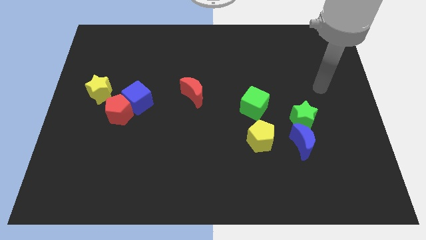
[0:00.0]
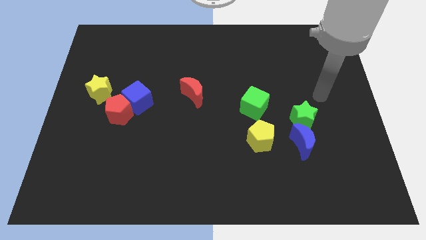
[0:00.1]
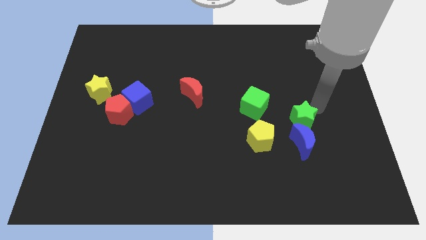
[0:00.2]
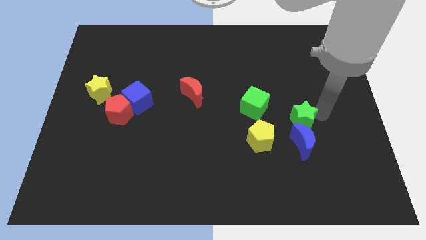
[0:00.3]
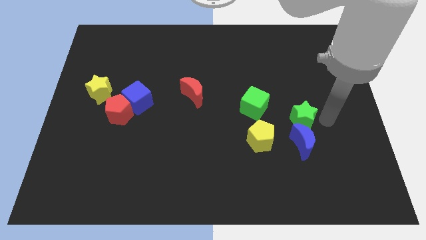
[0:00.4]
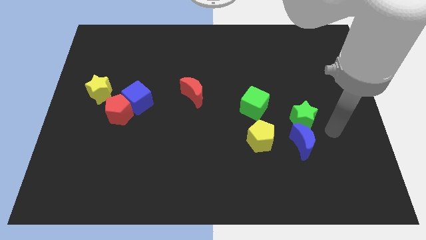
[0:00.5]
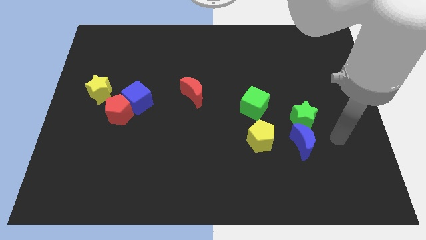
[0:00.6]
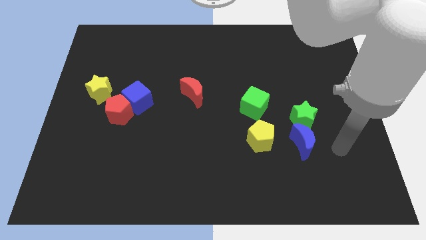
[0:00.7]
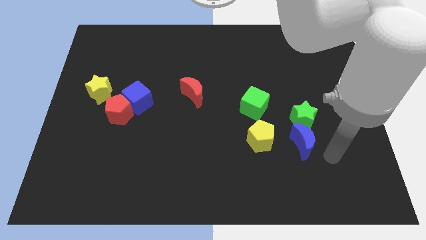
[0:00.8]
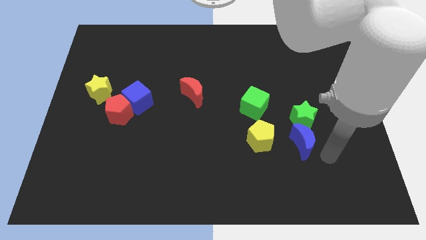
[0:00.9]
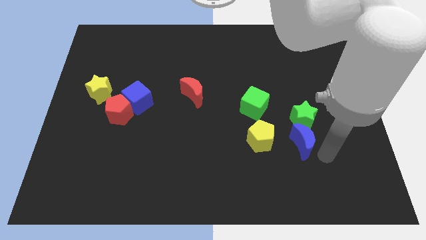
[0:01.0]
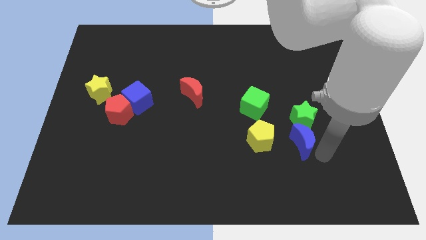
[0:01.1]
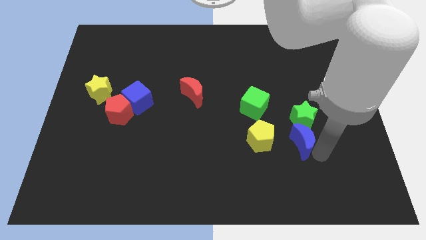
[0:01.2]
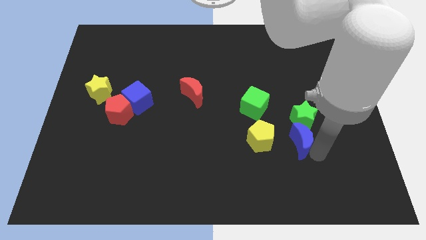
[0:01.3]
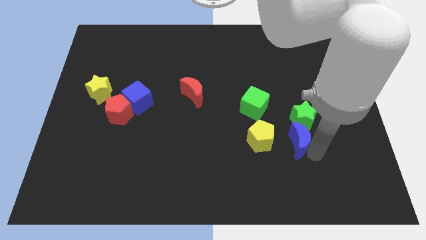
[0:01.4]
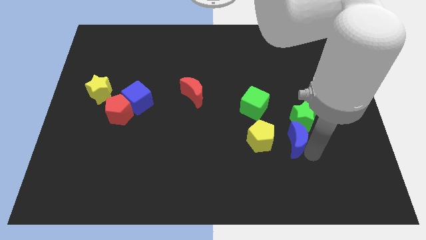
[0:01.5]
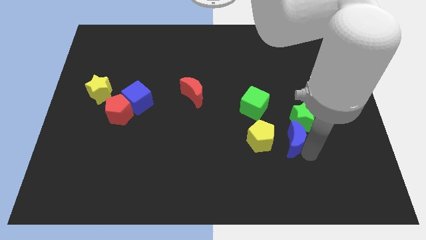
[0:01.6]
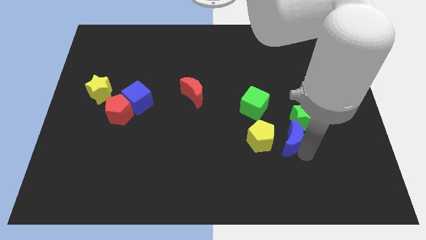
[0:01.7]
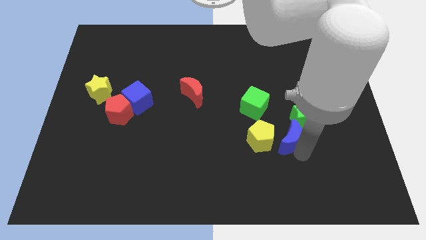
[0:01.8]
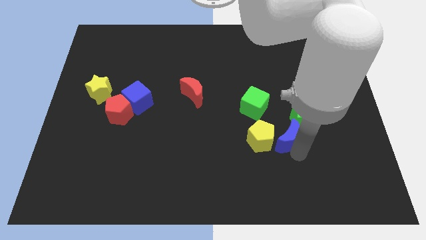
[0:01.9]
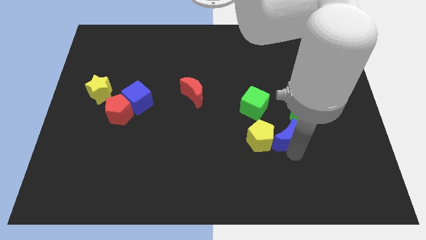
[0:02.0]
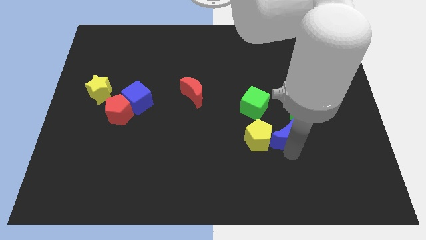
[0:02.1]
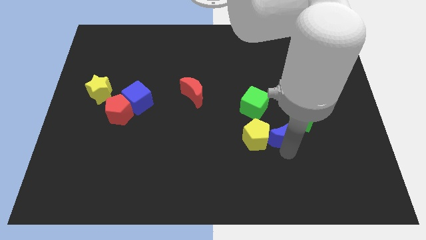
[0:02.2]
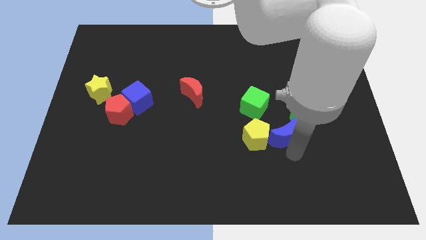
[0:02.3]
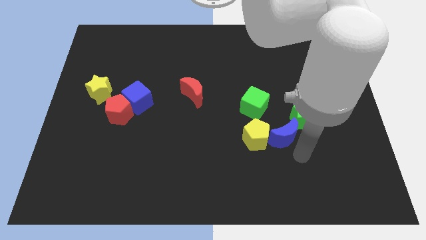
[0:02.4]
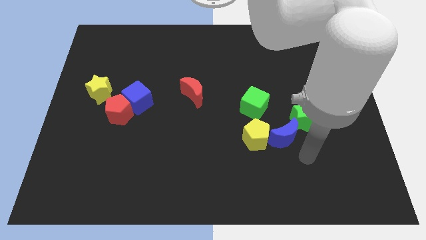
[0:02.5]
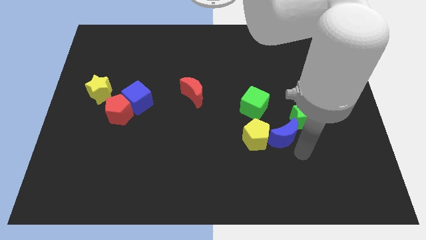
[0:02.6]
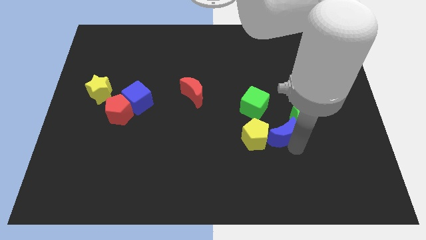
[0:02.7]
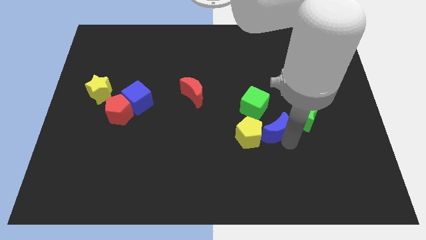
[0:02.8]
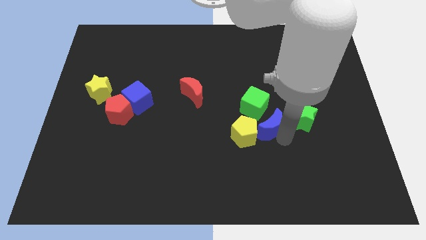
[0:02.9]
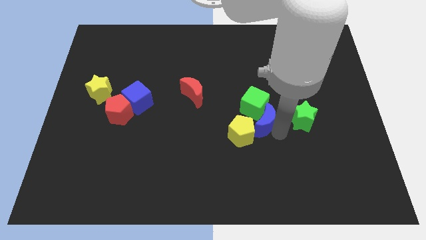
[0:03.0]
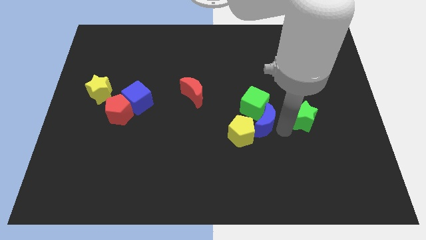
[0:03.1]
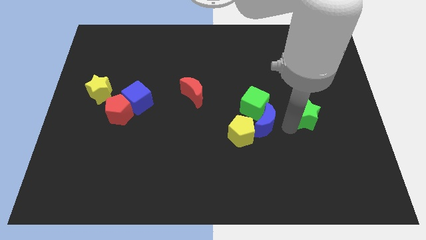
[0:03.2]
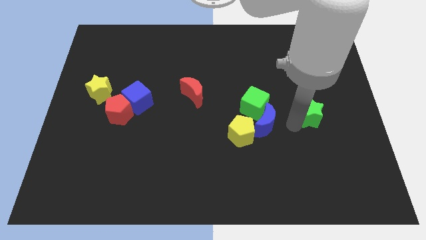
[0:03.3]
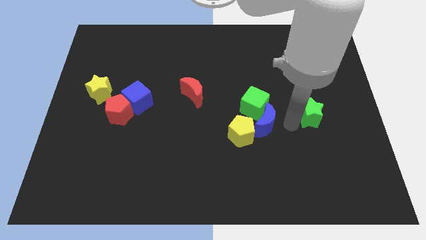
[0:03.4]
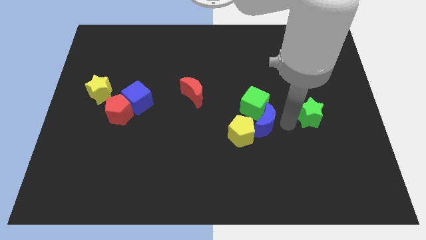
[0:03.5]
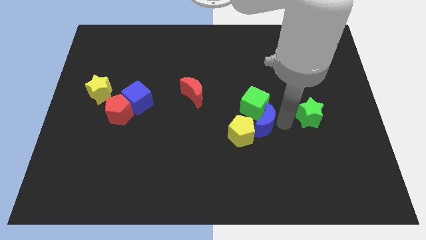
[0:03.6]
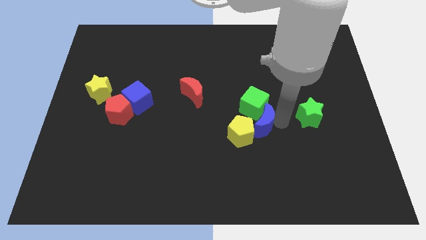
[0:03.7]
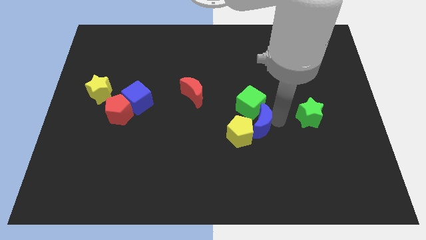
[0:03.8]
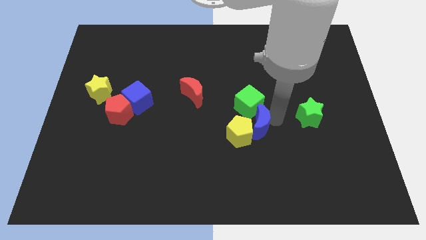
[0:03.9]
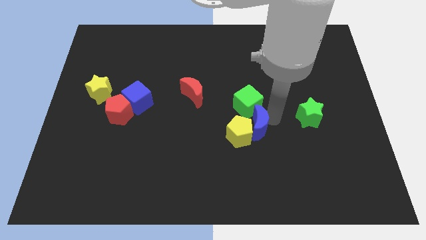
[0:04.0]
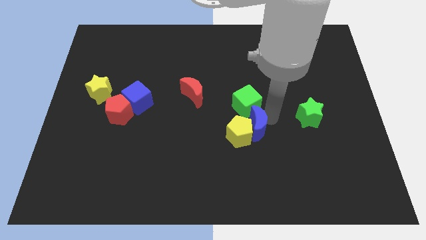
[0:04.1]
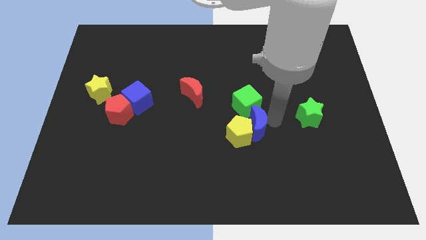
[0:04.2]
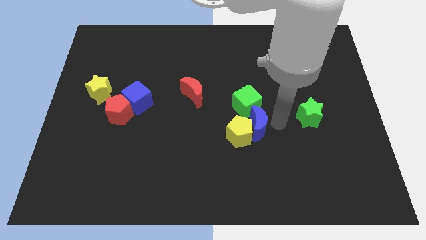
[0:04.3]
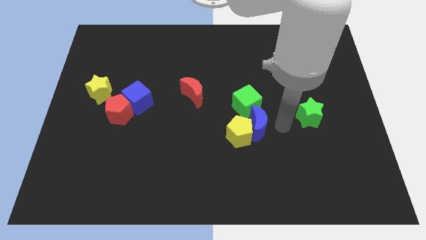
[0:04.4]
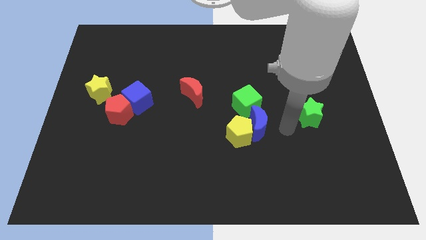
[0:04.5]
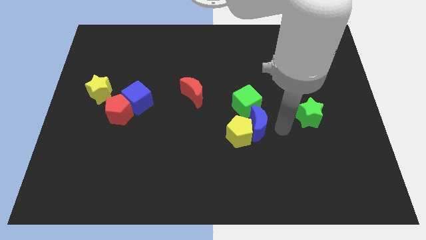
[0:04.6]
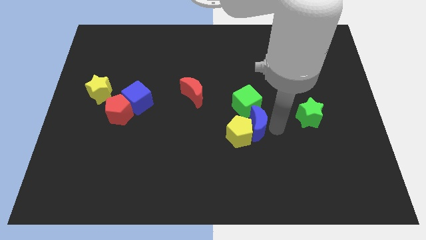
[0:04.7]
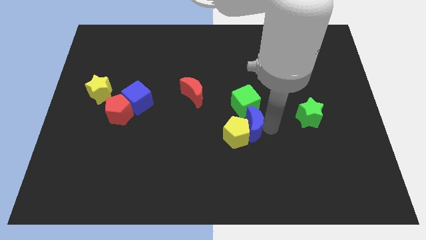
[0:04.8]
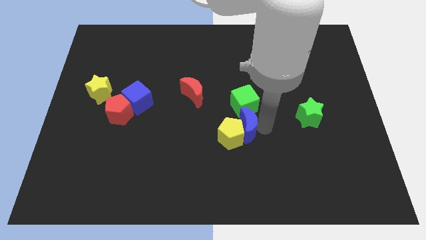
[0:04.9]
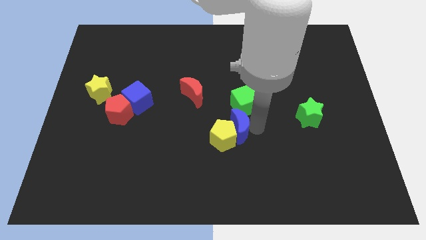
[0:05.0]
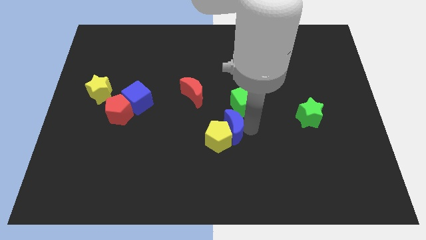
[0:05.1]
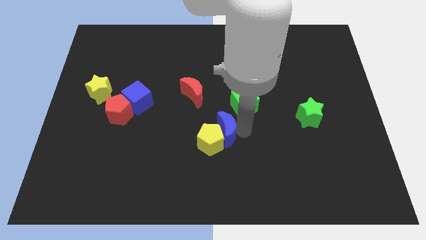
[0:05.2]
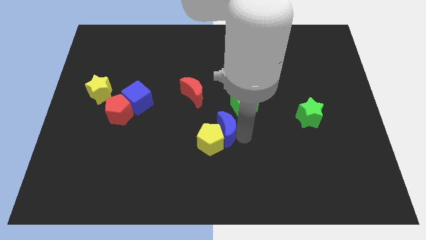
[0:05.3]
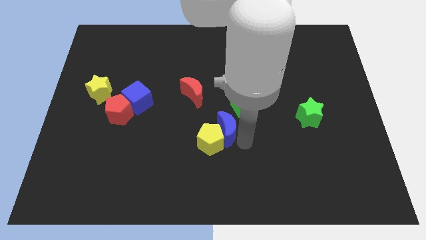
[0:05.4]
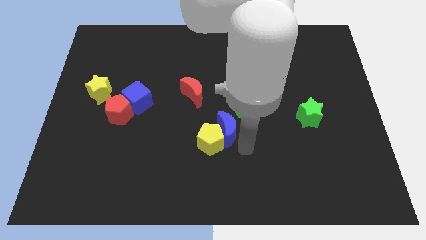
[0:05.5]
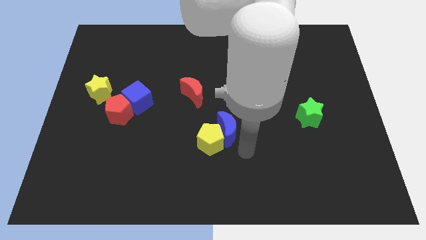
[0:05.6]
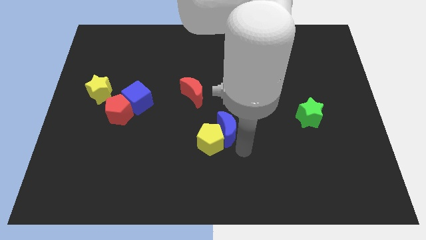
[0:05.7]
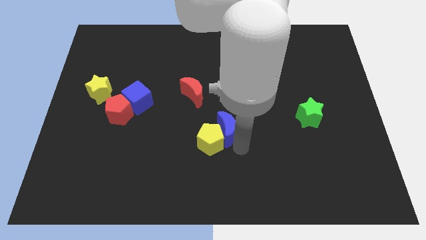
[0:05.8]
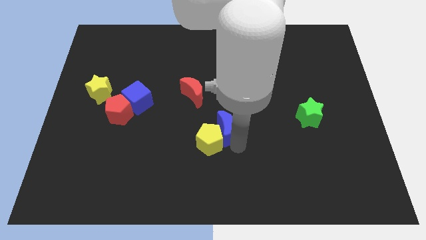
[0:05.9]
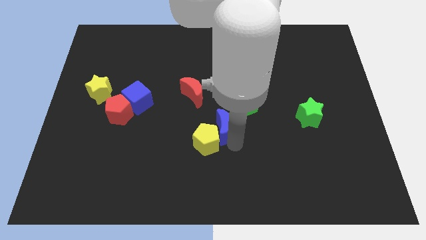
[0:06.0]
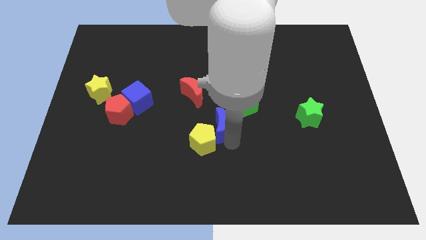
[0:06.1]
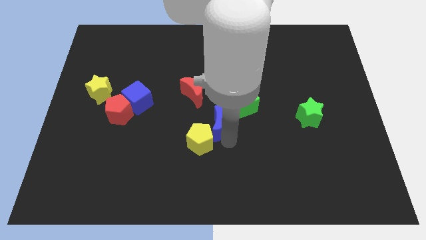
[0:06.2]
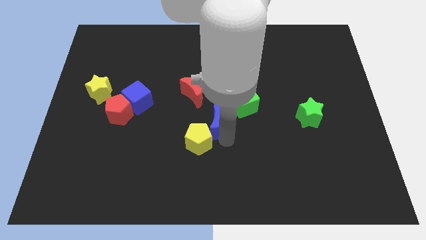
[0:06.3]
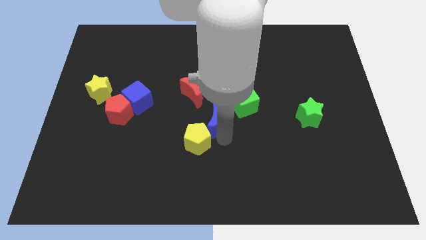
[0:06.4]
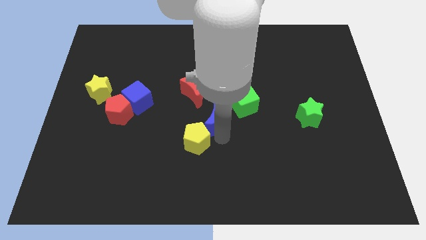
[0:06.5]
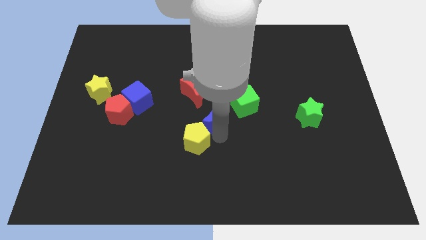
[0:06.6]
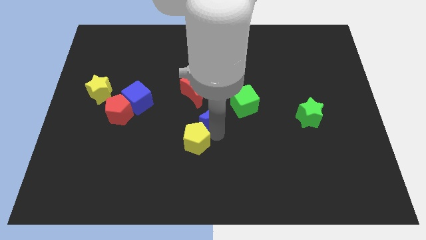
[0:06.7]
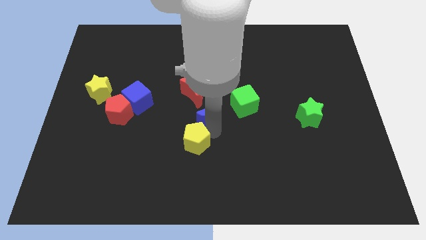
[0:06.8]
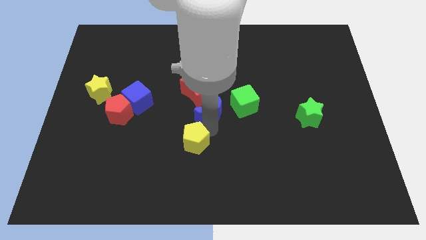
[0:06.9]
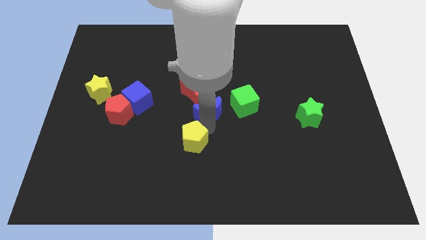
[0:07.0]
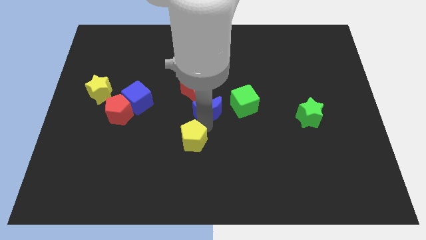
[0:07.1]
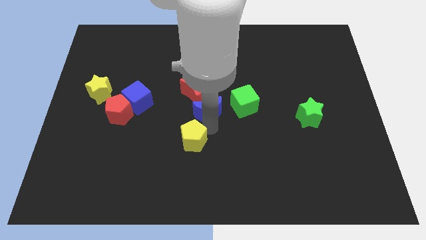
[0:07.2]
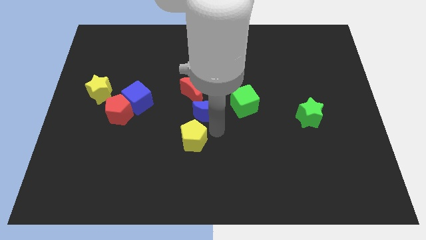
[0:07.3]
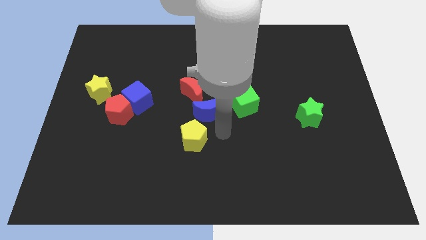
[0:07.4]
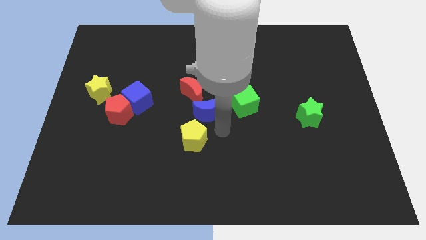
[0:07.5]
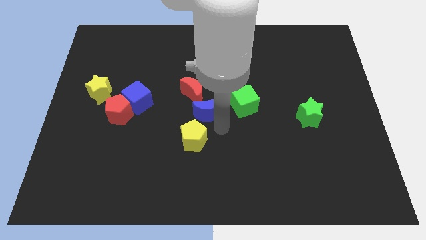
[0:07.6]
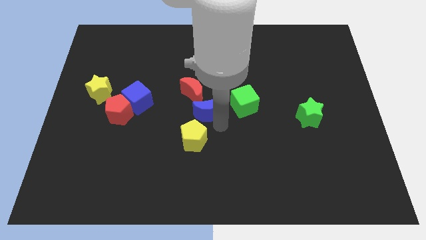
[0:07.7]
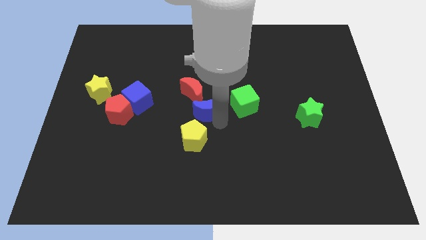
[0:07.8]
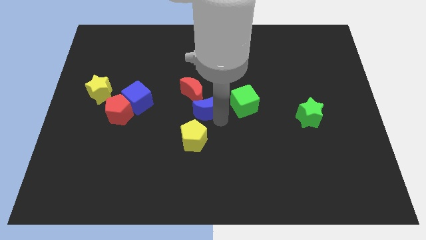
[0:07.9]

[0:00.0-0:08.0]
slide the blue moon towards the red moon
